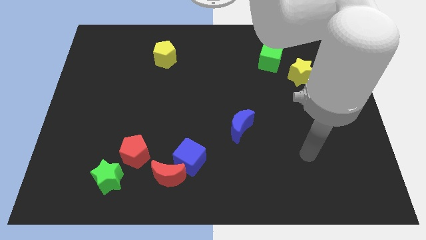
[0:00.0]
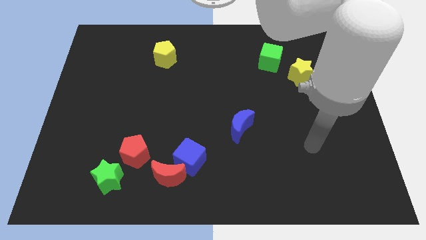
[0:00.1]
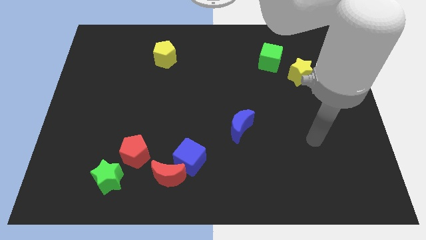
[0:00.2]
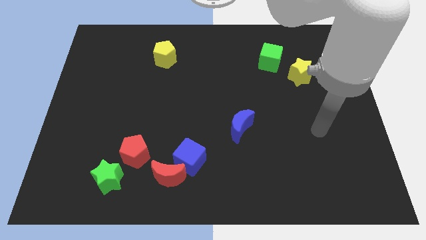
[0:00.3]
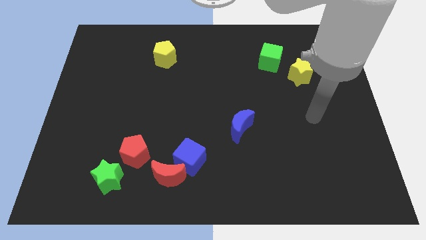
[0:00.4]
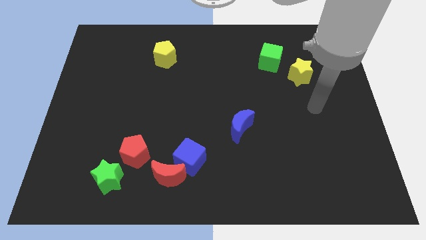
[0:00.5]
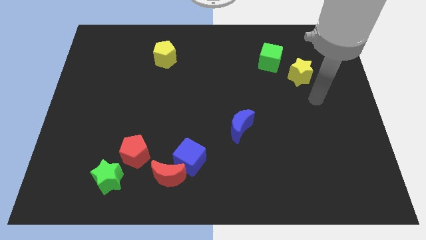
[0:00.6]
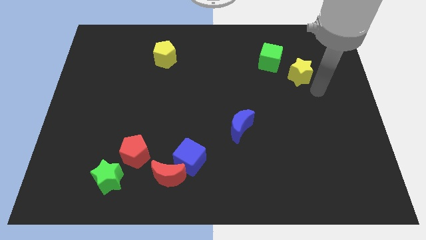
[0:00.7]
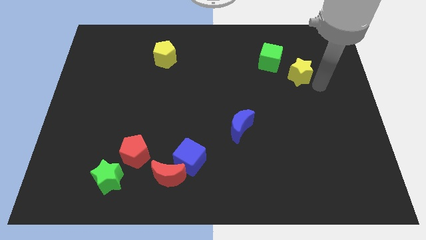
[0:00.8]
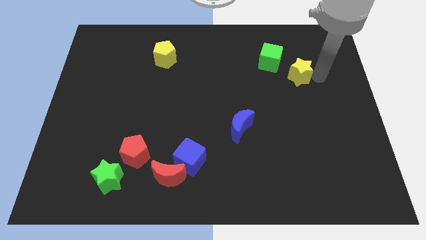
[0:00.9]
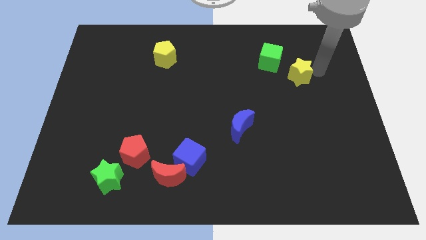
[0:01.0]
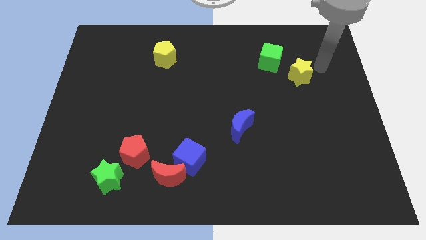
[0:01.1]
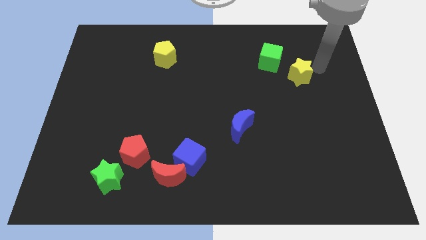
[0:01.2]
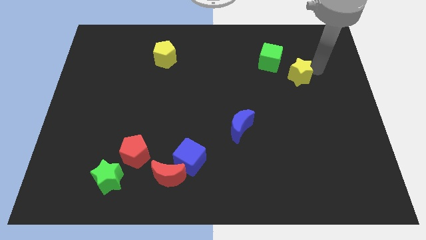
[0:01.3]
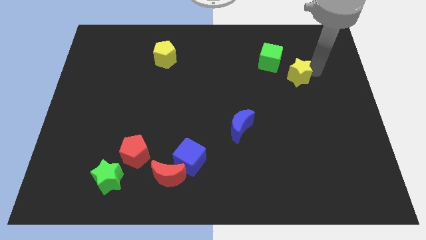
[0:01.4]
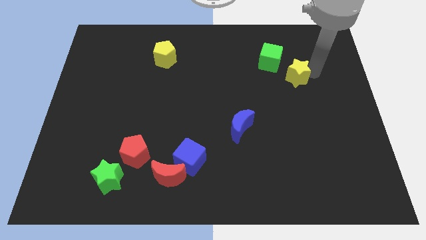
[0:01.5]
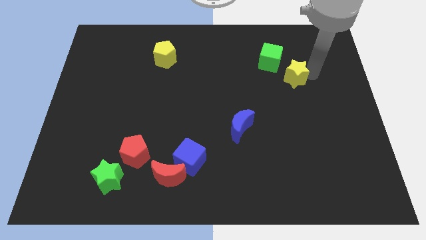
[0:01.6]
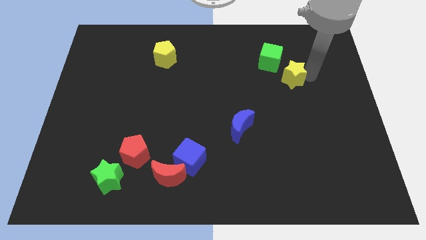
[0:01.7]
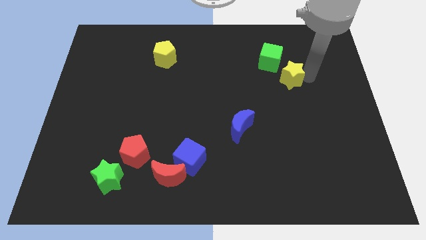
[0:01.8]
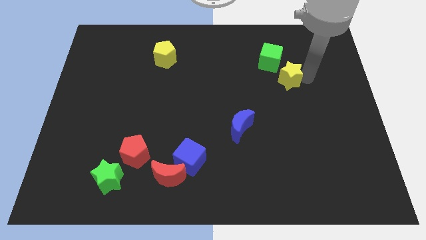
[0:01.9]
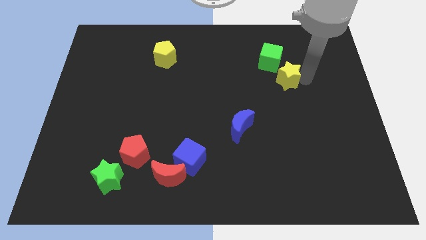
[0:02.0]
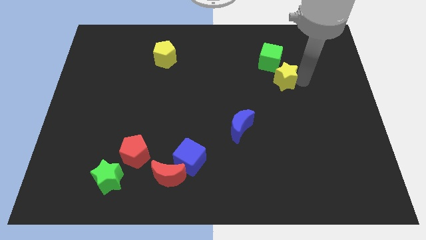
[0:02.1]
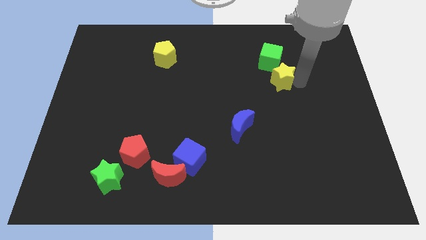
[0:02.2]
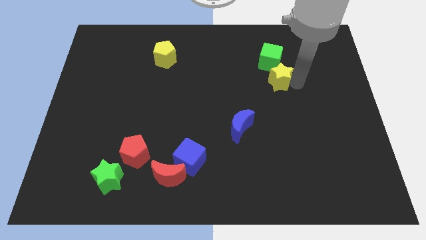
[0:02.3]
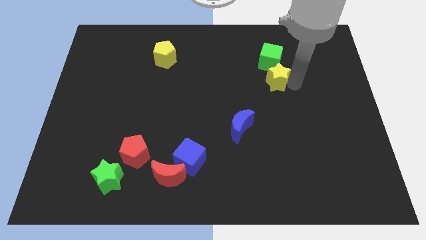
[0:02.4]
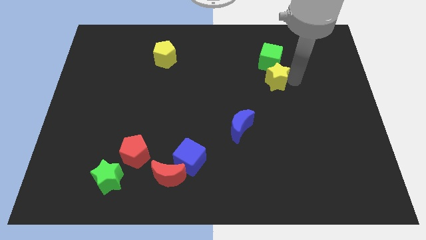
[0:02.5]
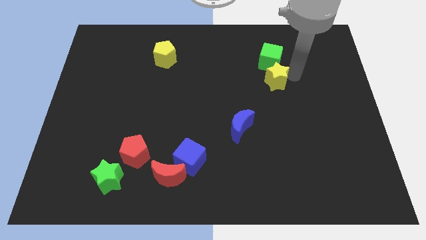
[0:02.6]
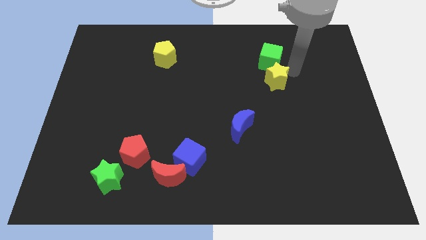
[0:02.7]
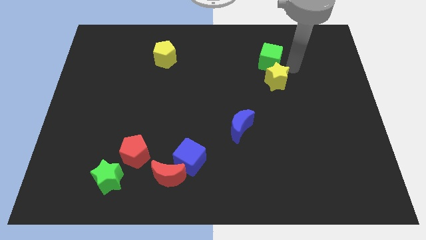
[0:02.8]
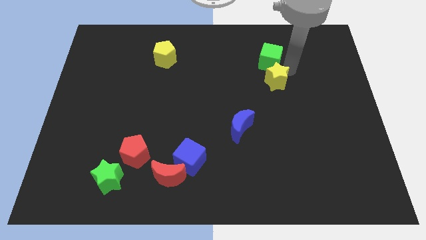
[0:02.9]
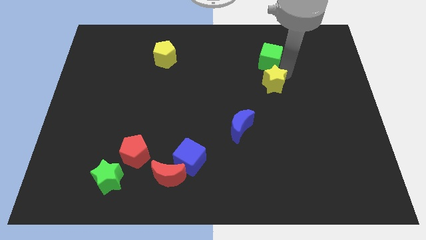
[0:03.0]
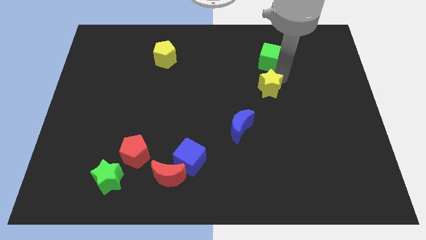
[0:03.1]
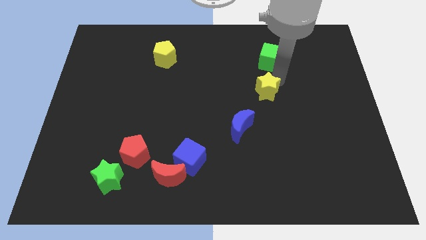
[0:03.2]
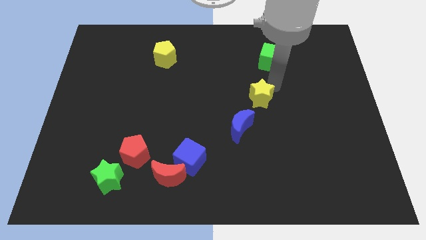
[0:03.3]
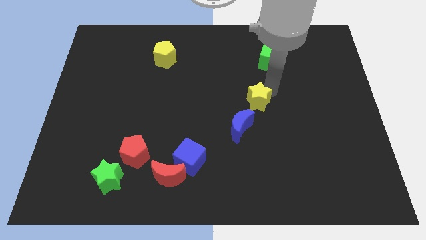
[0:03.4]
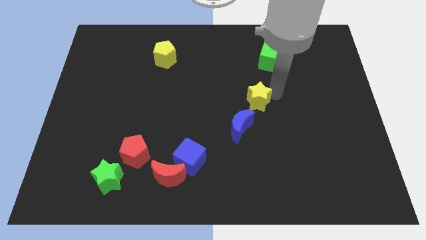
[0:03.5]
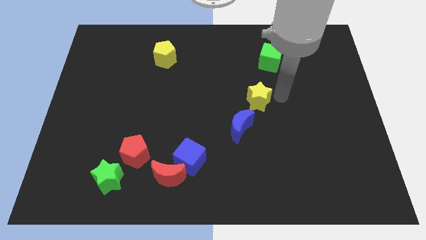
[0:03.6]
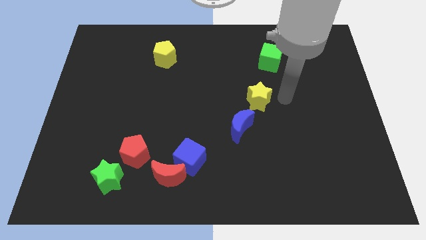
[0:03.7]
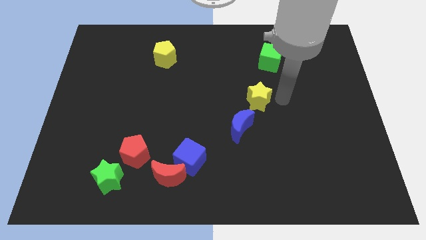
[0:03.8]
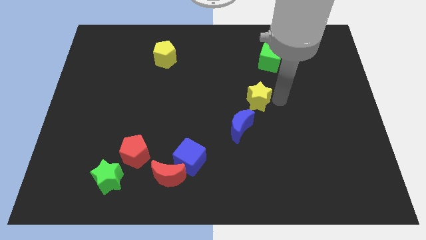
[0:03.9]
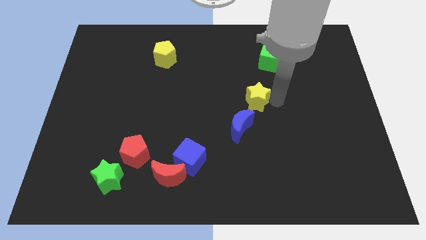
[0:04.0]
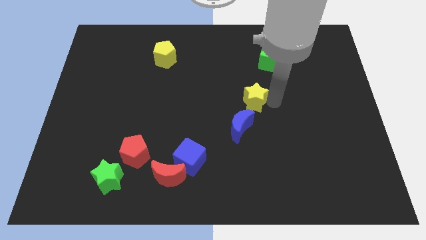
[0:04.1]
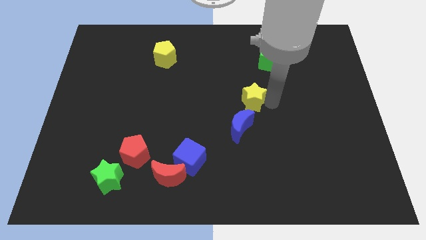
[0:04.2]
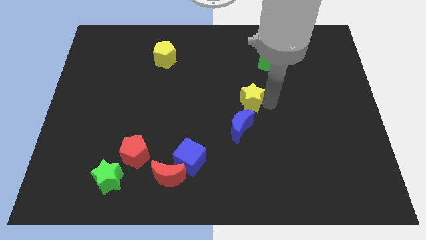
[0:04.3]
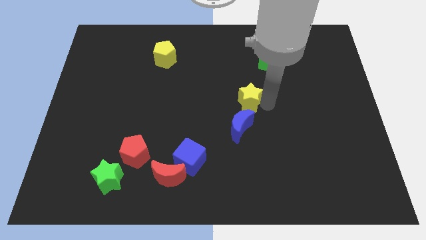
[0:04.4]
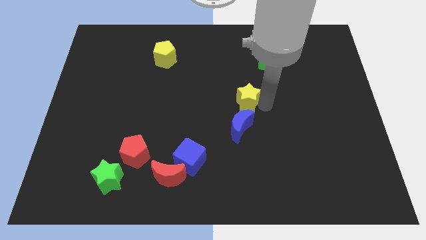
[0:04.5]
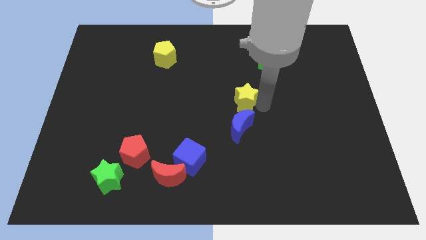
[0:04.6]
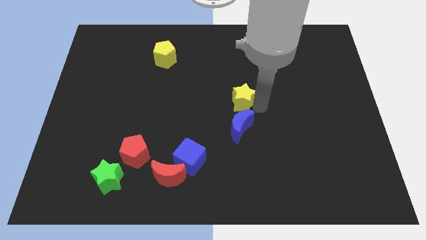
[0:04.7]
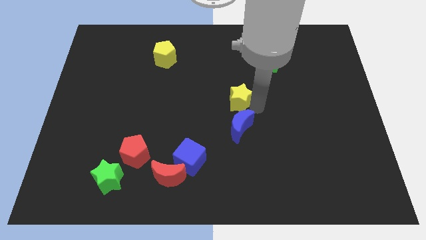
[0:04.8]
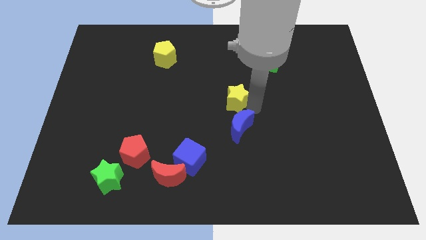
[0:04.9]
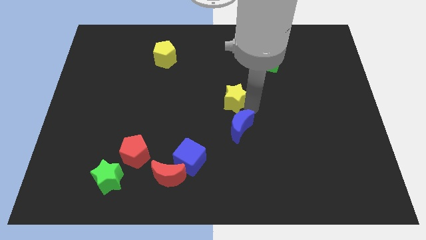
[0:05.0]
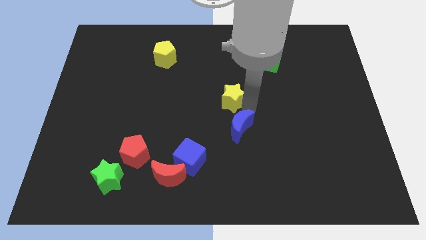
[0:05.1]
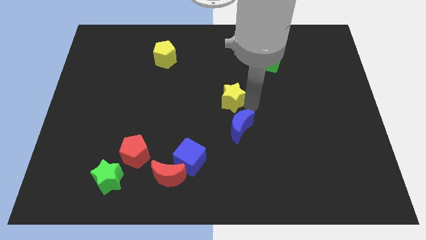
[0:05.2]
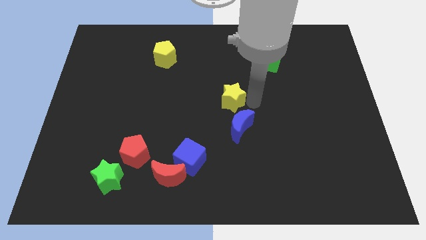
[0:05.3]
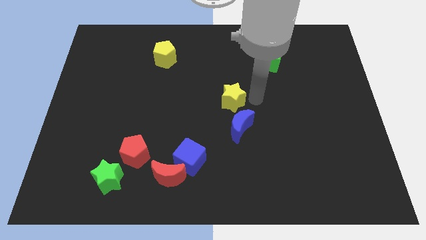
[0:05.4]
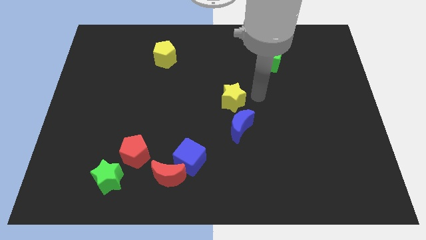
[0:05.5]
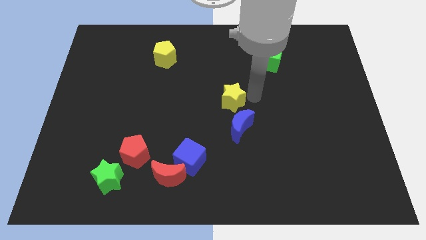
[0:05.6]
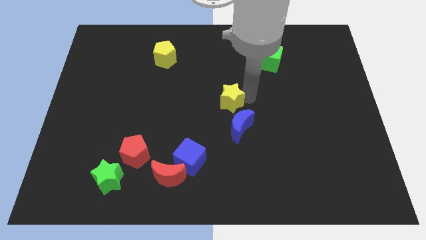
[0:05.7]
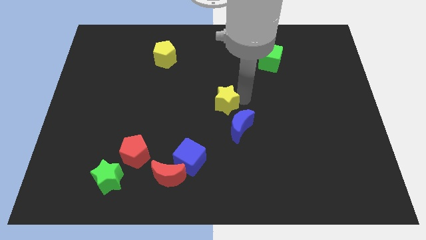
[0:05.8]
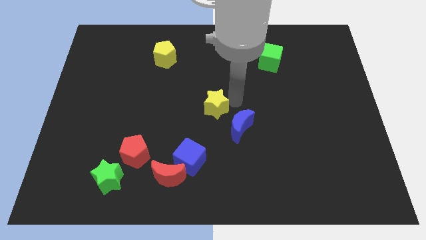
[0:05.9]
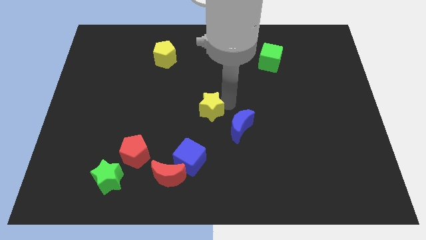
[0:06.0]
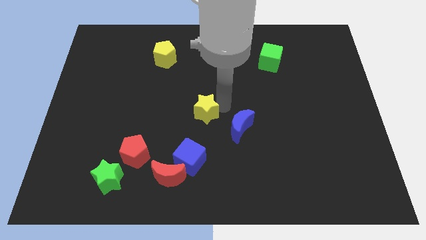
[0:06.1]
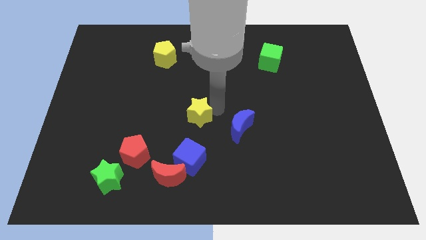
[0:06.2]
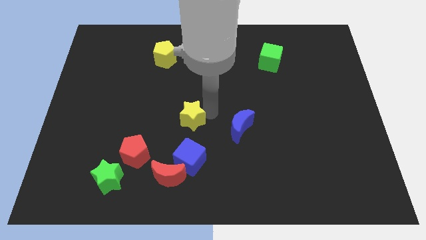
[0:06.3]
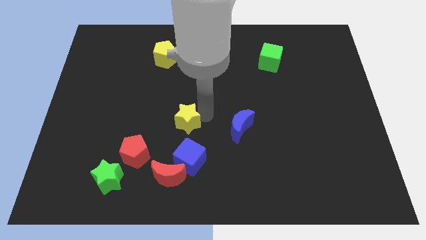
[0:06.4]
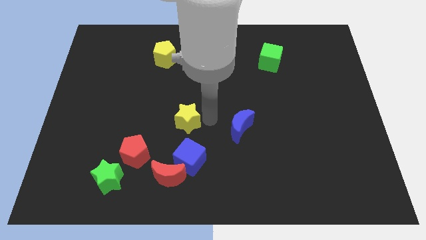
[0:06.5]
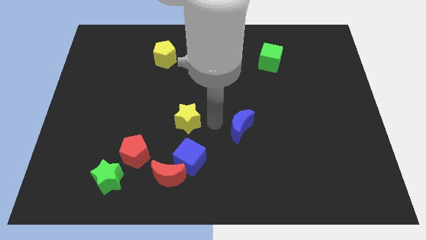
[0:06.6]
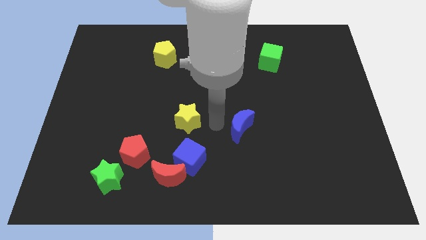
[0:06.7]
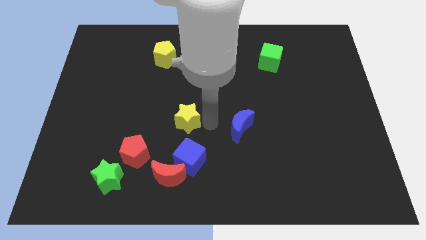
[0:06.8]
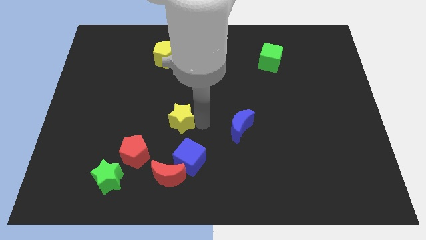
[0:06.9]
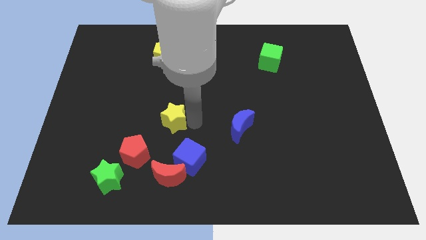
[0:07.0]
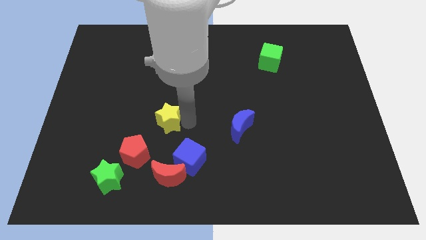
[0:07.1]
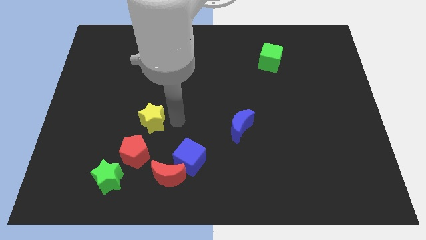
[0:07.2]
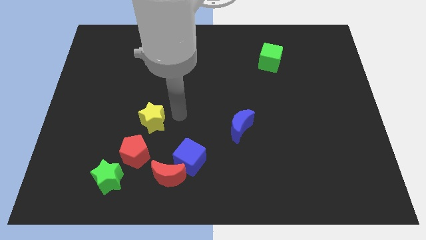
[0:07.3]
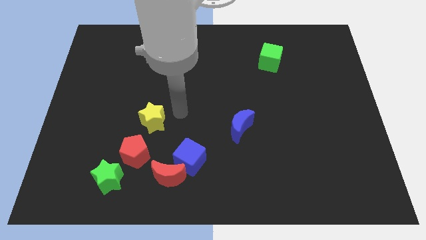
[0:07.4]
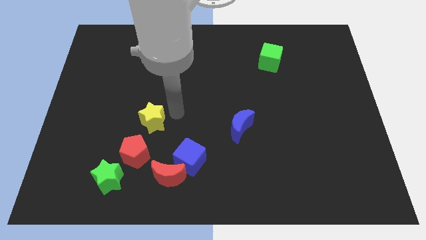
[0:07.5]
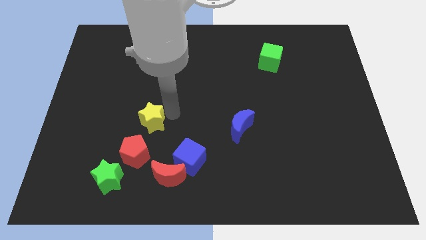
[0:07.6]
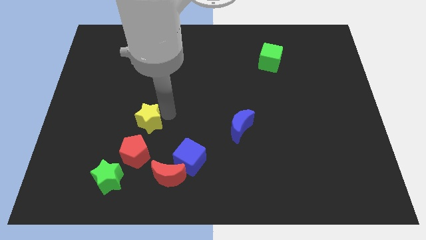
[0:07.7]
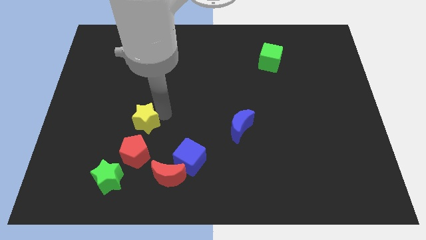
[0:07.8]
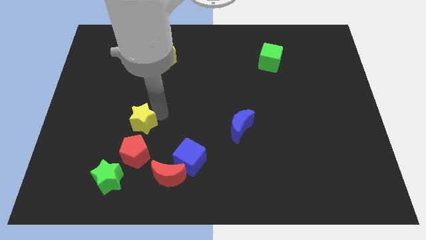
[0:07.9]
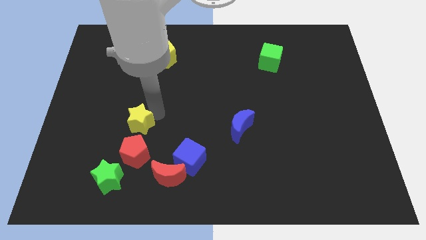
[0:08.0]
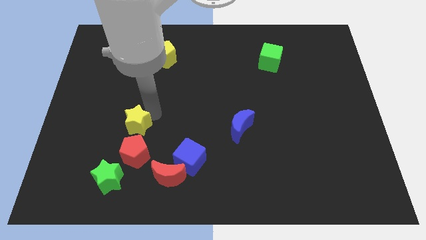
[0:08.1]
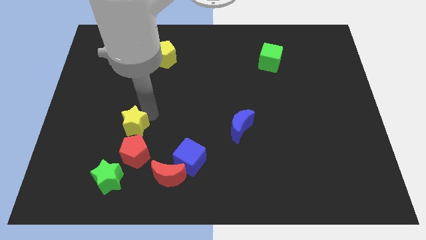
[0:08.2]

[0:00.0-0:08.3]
slide the yellow star diagonally up and to the left of the red pentagon
